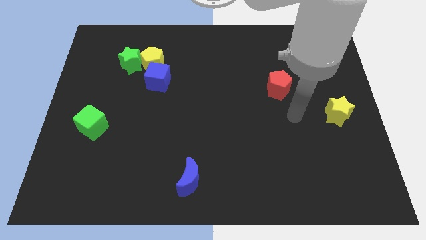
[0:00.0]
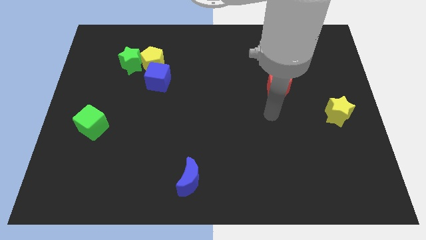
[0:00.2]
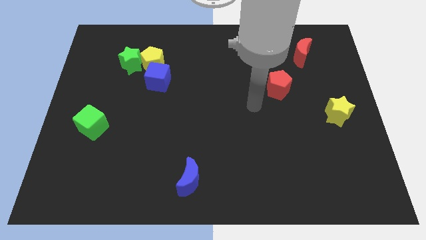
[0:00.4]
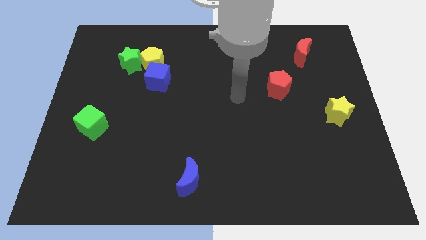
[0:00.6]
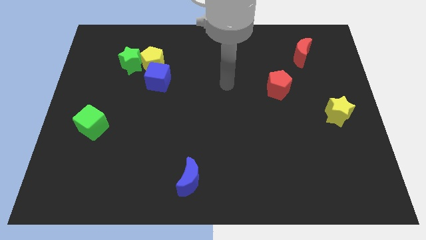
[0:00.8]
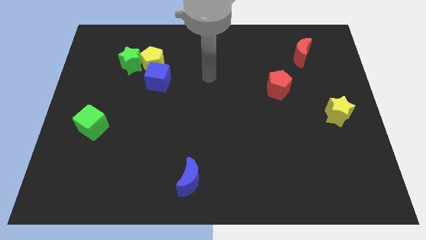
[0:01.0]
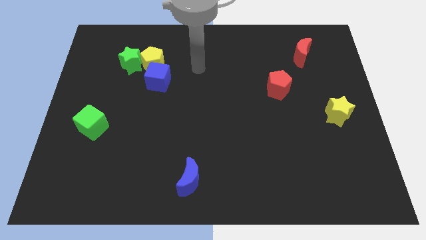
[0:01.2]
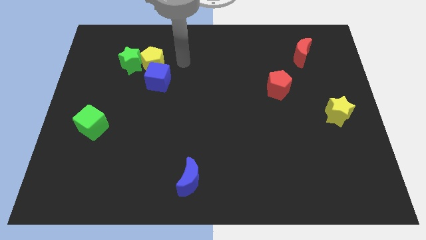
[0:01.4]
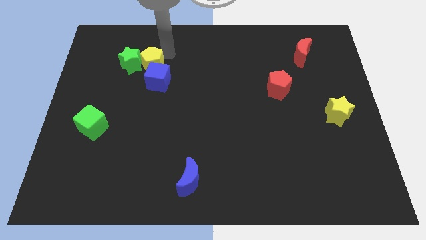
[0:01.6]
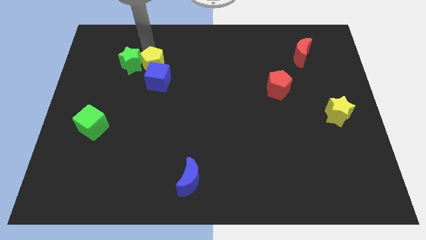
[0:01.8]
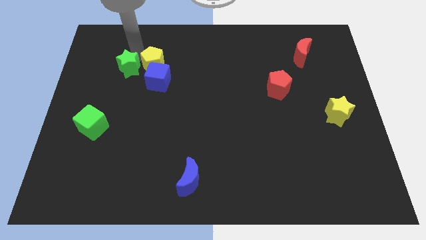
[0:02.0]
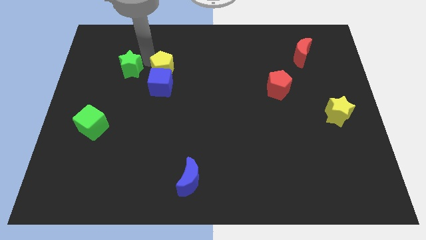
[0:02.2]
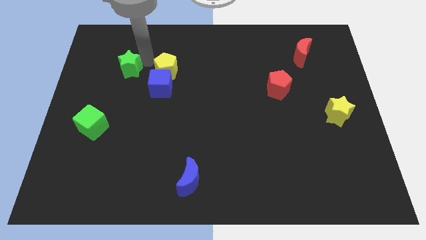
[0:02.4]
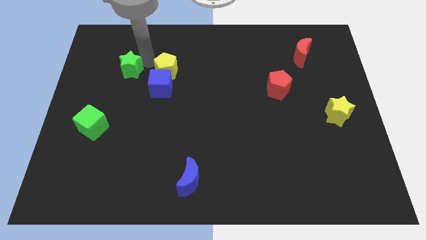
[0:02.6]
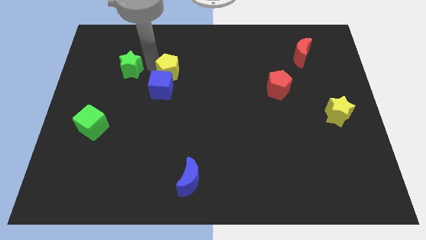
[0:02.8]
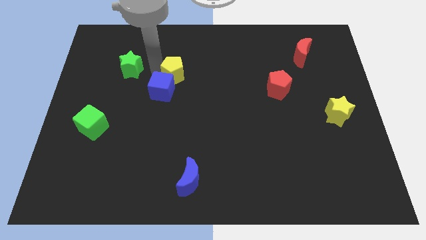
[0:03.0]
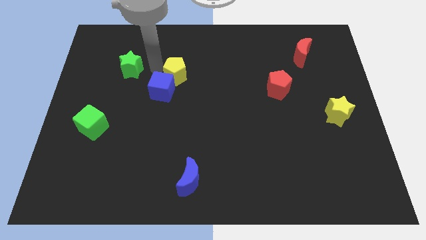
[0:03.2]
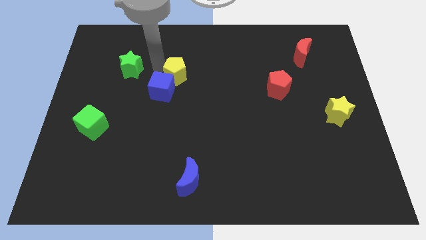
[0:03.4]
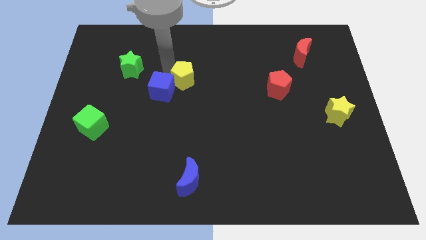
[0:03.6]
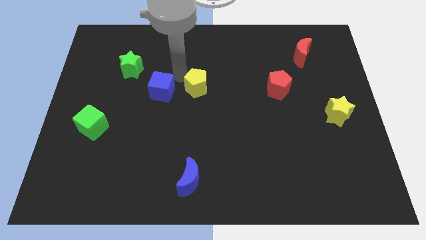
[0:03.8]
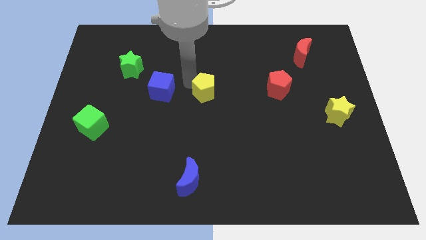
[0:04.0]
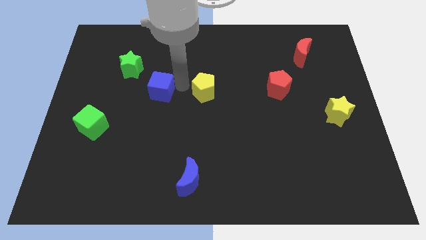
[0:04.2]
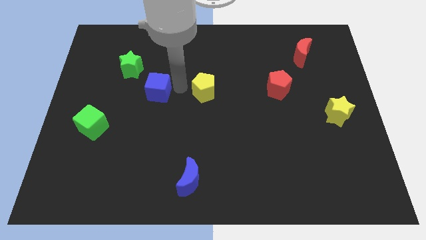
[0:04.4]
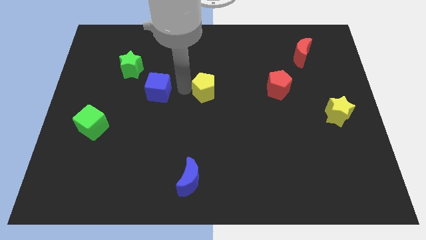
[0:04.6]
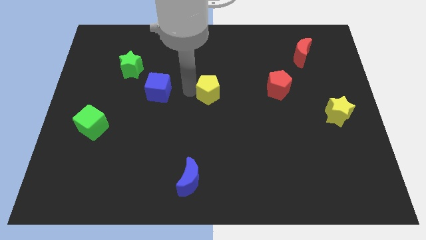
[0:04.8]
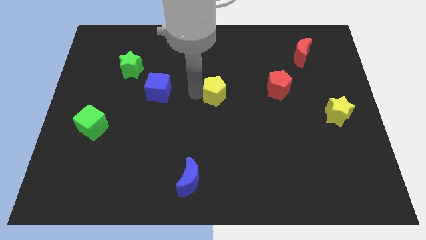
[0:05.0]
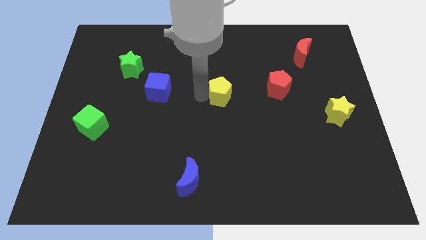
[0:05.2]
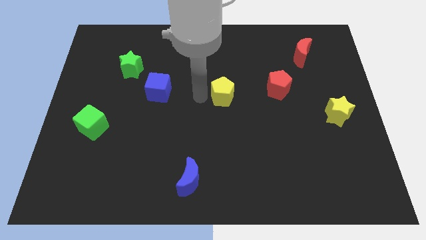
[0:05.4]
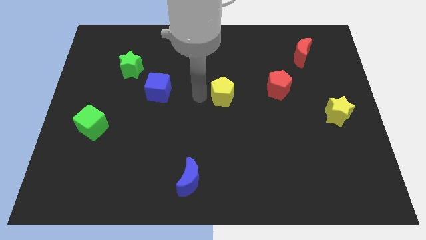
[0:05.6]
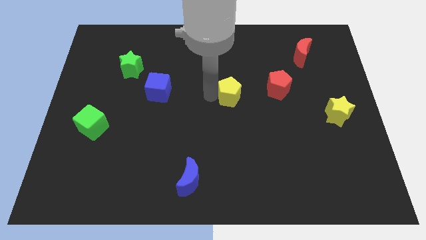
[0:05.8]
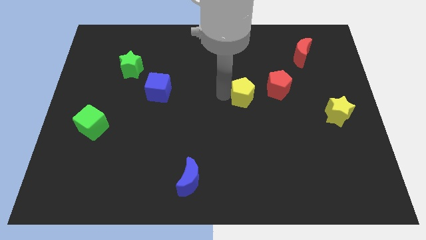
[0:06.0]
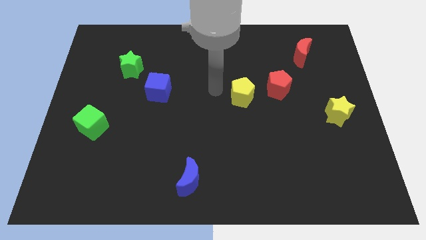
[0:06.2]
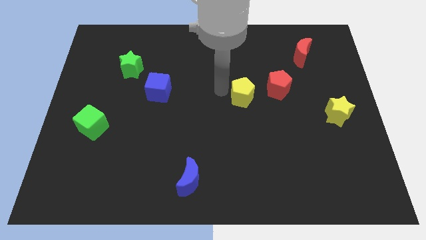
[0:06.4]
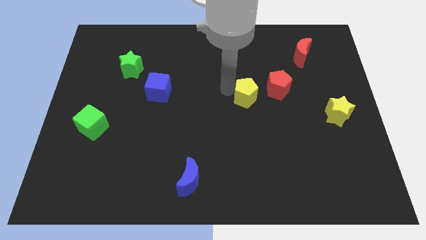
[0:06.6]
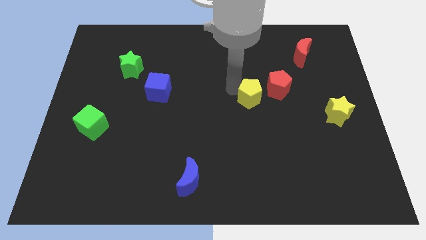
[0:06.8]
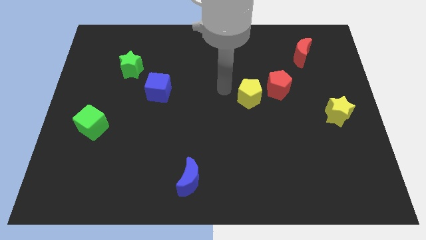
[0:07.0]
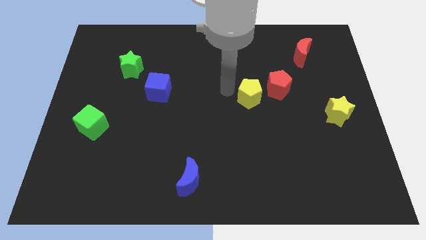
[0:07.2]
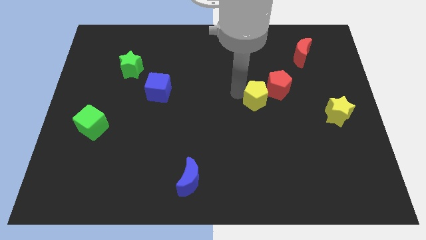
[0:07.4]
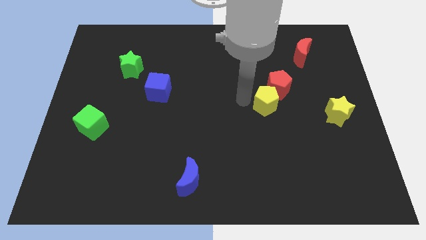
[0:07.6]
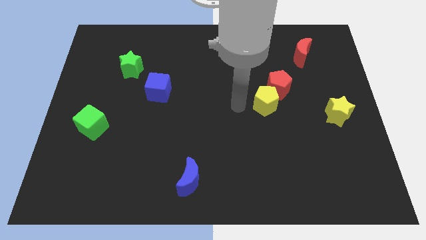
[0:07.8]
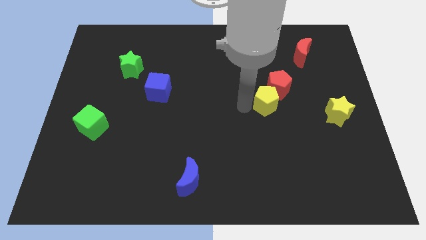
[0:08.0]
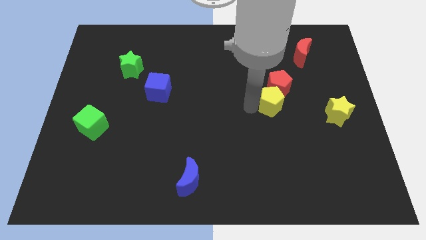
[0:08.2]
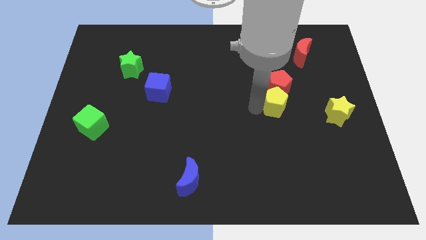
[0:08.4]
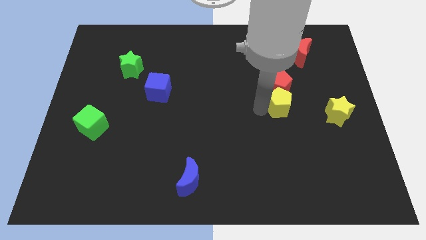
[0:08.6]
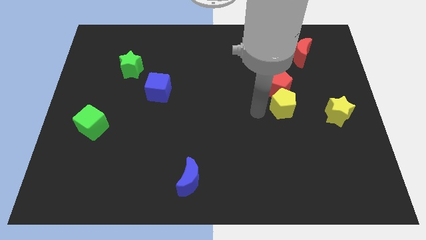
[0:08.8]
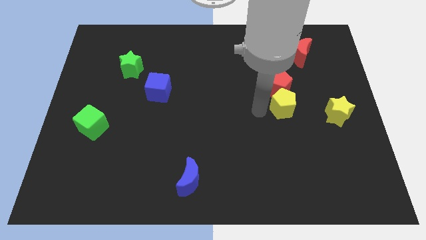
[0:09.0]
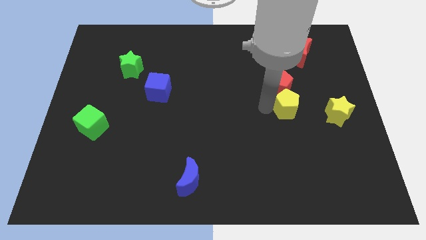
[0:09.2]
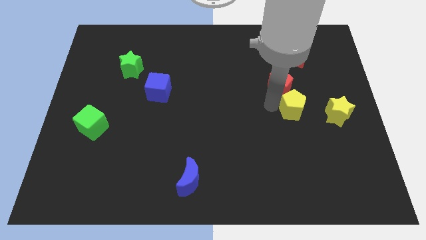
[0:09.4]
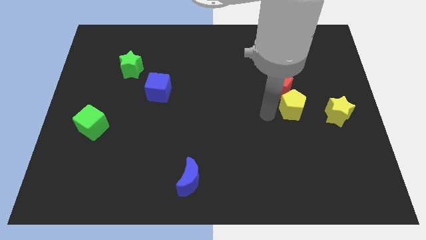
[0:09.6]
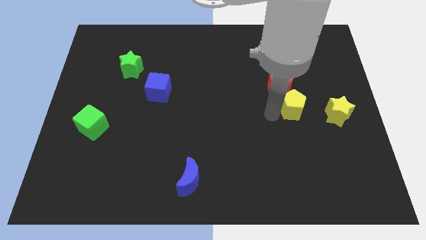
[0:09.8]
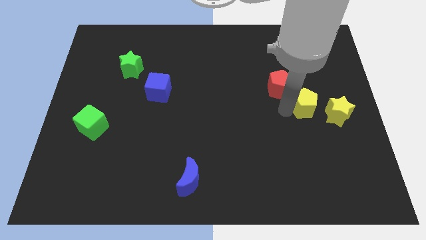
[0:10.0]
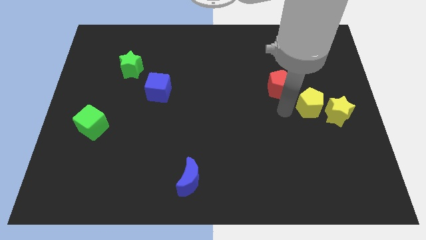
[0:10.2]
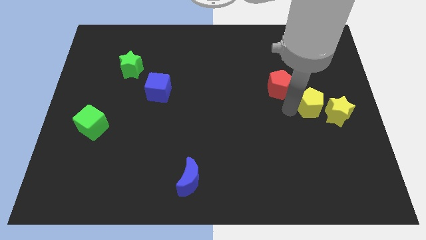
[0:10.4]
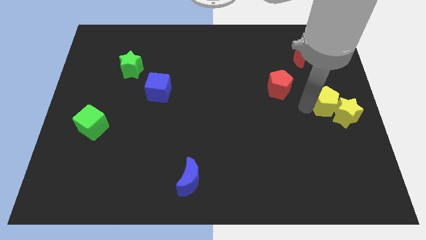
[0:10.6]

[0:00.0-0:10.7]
put the yellow pentagon to the center right
